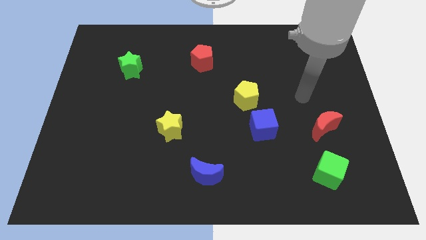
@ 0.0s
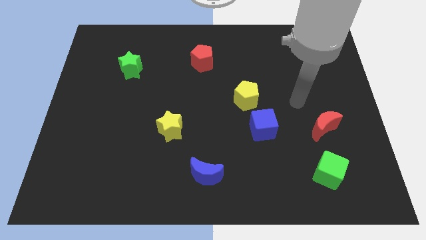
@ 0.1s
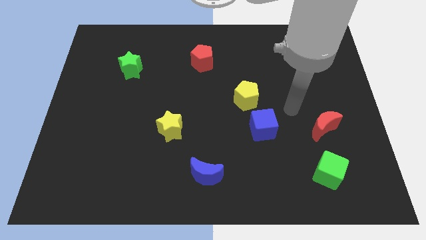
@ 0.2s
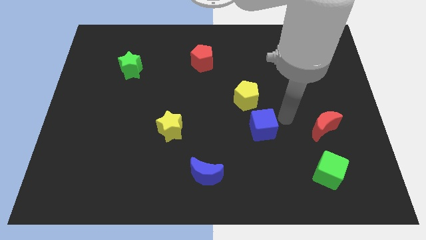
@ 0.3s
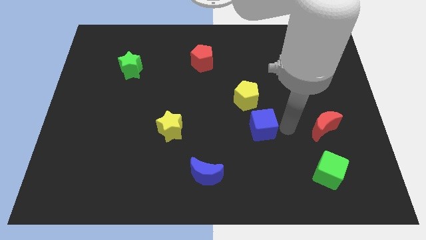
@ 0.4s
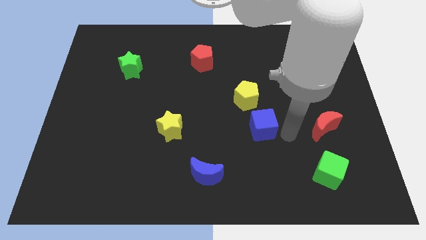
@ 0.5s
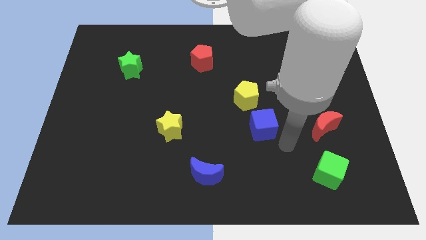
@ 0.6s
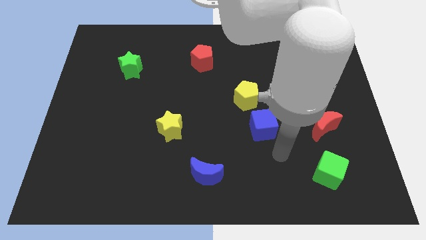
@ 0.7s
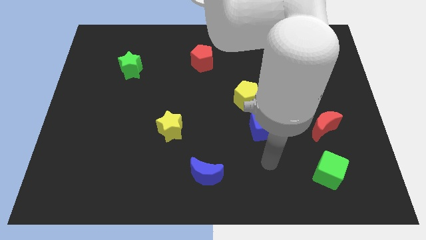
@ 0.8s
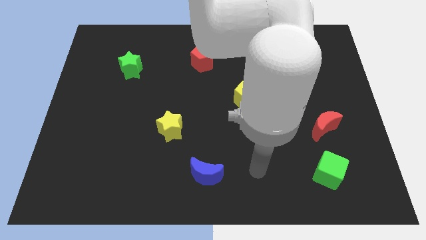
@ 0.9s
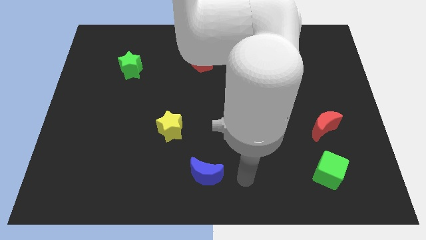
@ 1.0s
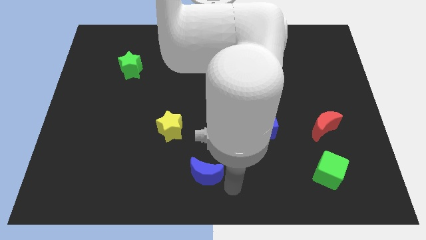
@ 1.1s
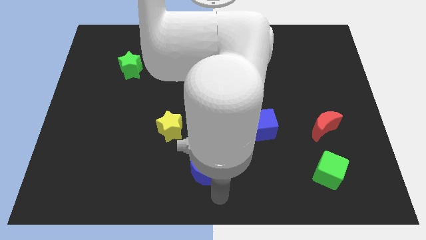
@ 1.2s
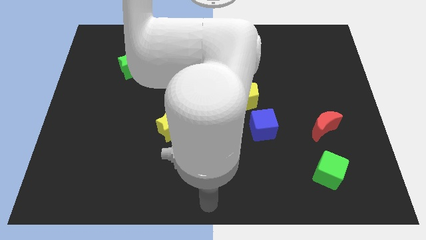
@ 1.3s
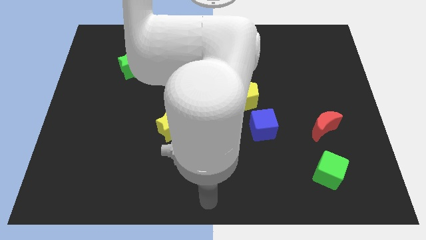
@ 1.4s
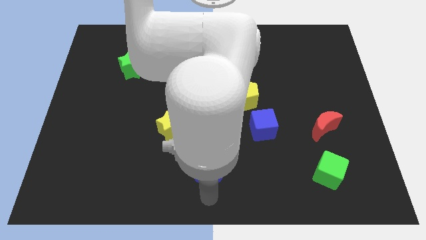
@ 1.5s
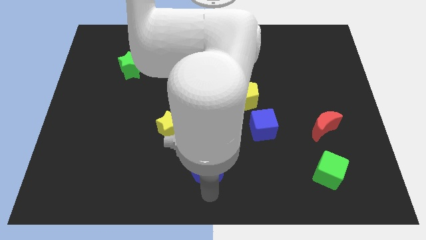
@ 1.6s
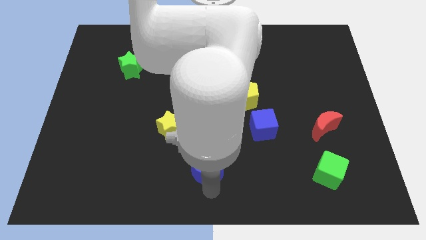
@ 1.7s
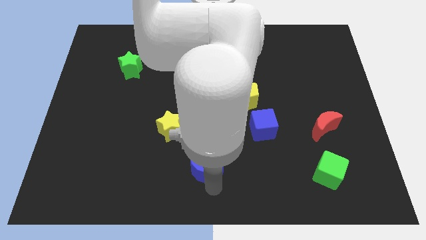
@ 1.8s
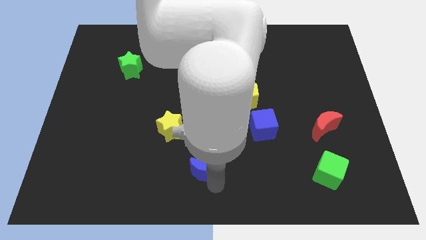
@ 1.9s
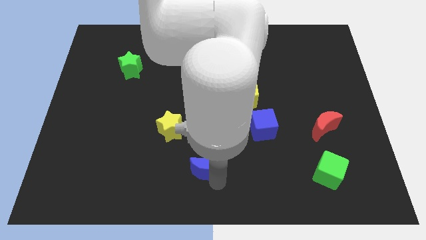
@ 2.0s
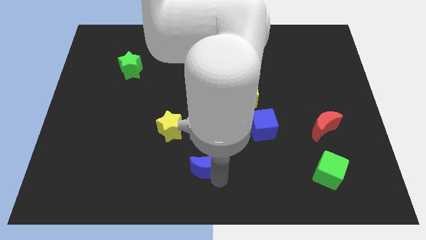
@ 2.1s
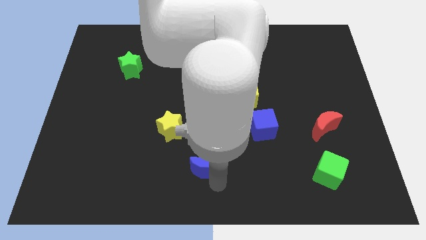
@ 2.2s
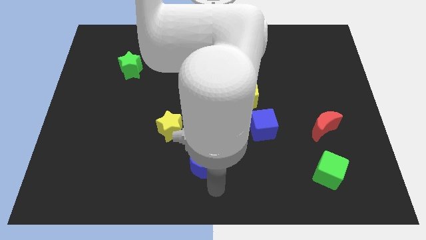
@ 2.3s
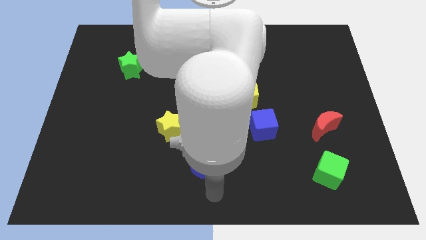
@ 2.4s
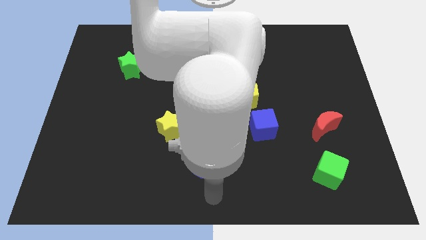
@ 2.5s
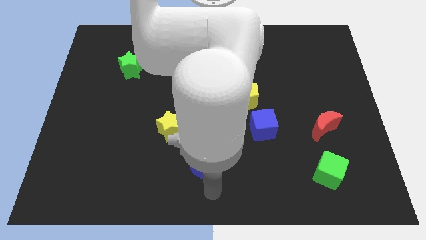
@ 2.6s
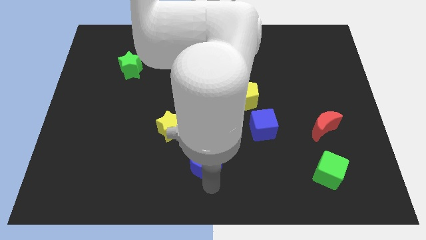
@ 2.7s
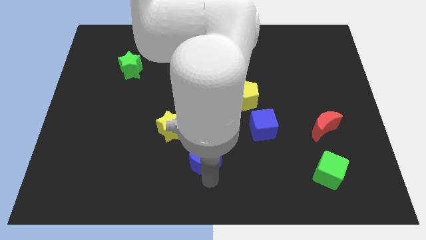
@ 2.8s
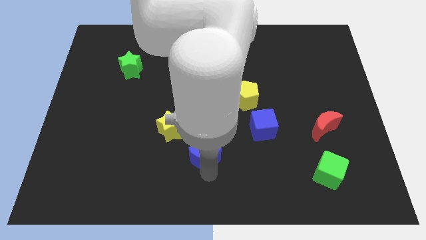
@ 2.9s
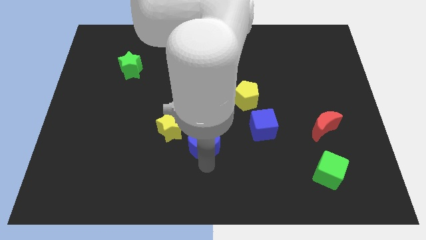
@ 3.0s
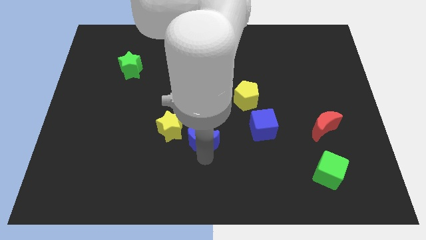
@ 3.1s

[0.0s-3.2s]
move the blue moon upwards somewhat

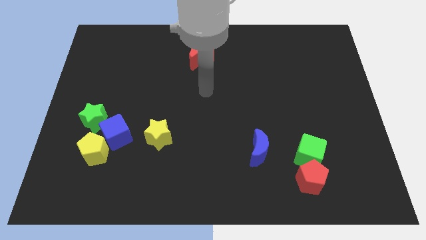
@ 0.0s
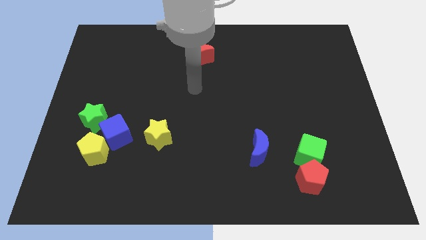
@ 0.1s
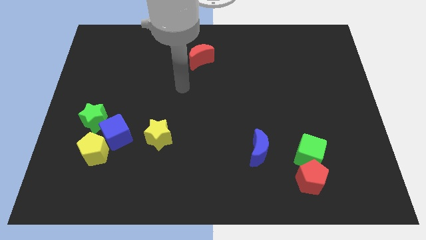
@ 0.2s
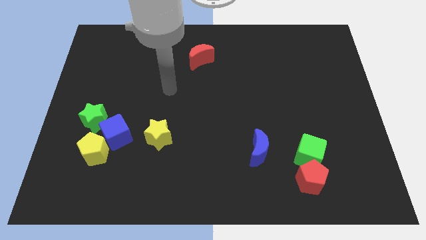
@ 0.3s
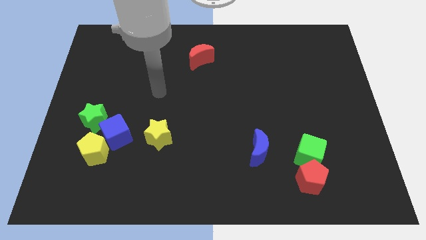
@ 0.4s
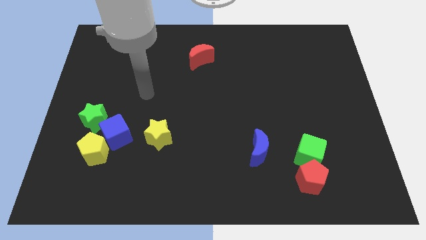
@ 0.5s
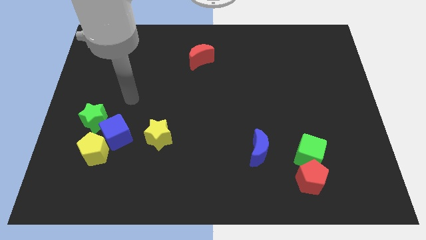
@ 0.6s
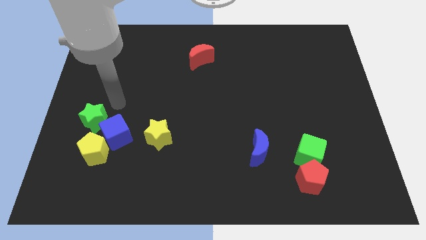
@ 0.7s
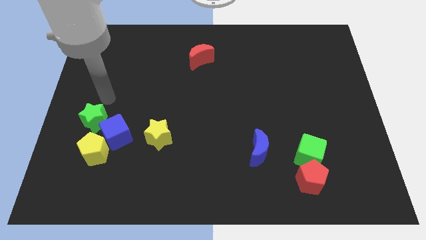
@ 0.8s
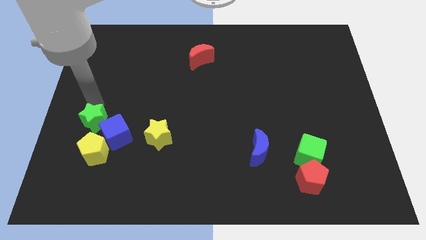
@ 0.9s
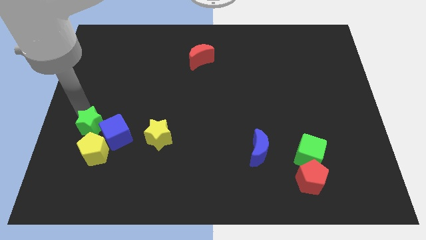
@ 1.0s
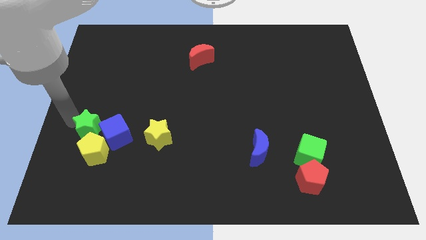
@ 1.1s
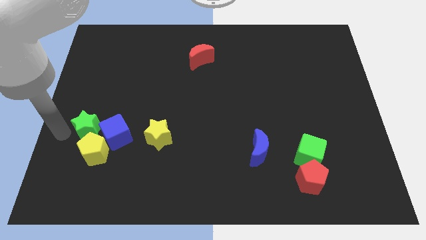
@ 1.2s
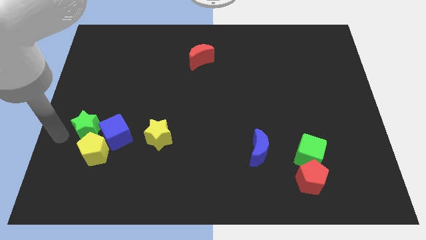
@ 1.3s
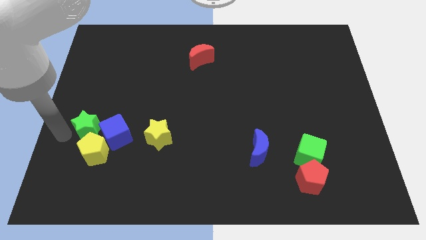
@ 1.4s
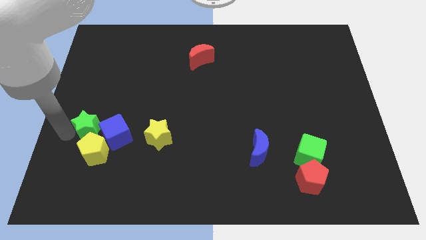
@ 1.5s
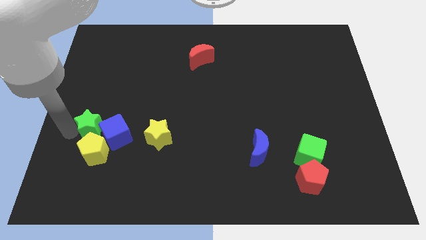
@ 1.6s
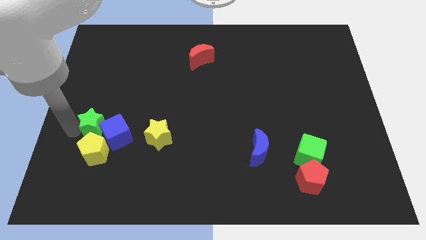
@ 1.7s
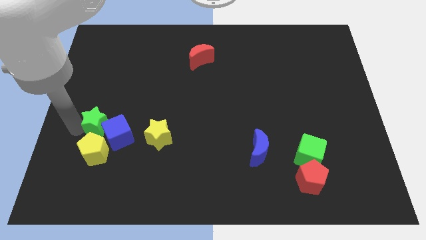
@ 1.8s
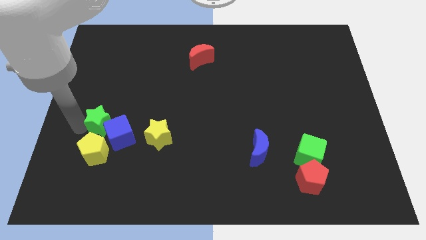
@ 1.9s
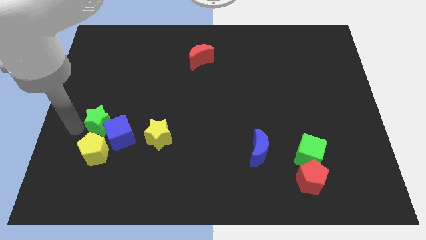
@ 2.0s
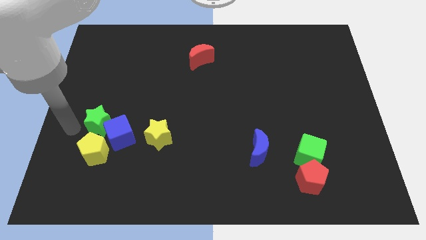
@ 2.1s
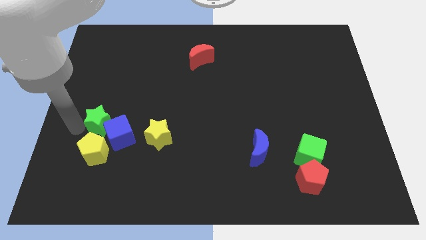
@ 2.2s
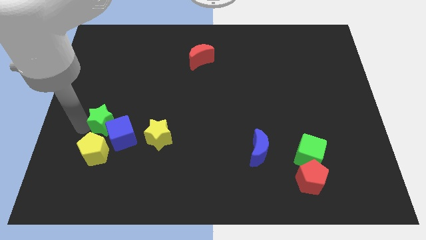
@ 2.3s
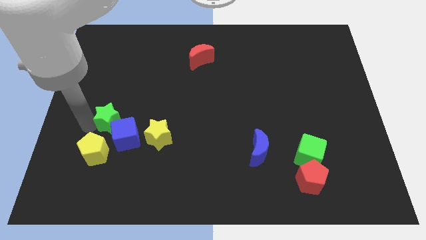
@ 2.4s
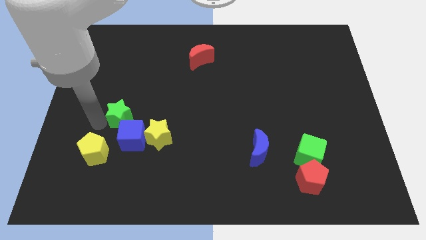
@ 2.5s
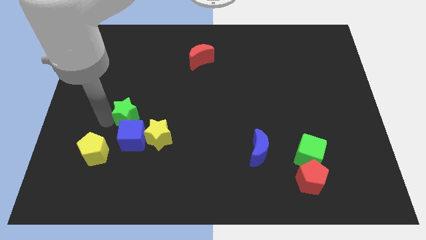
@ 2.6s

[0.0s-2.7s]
move the green star a little right

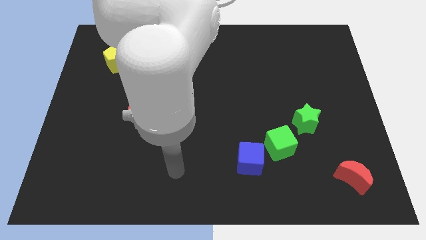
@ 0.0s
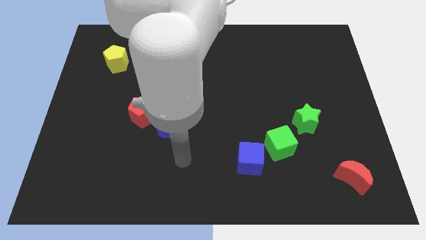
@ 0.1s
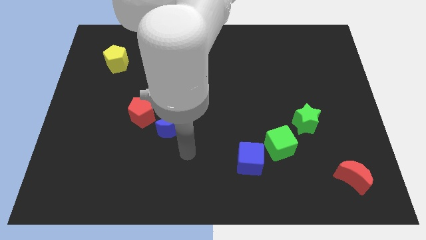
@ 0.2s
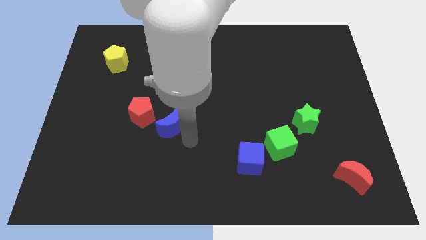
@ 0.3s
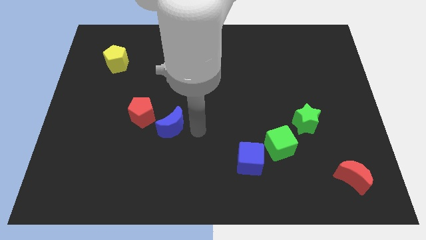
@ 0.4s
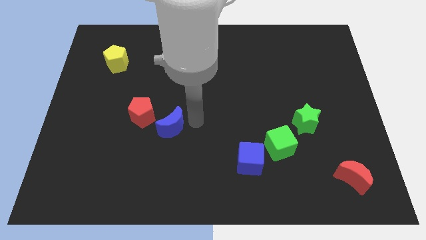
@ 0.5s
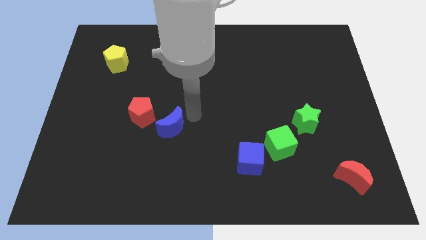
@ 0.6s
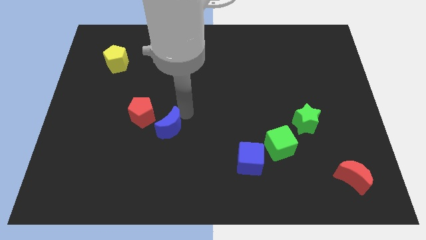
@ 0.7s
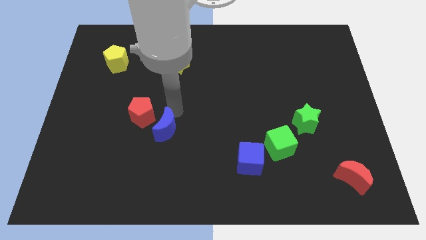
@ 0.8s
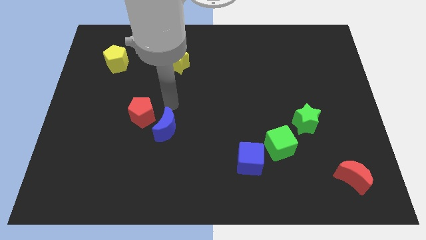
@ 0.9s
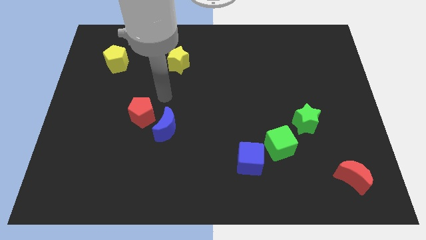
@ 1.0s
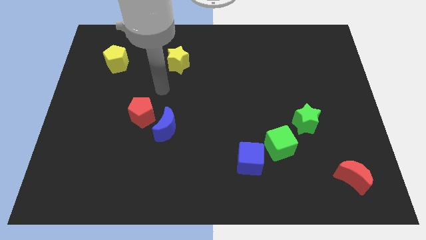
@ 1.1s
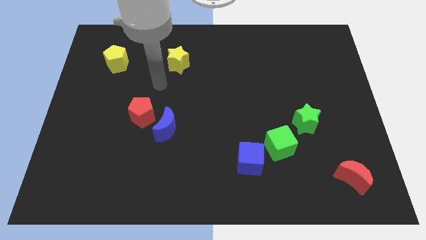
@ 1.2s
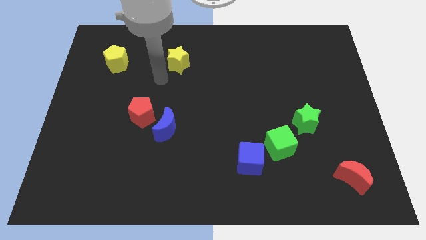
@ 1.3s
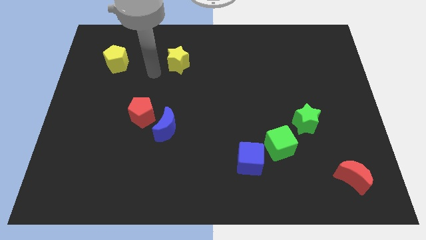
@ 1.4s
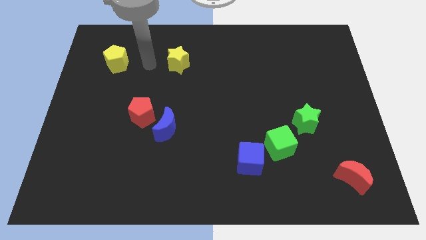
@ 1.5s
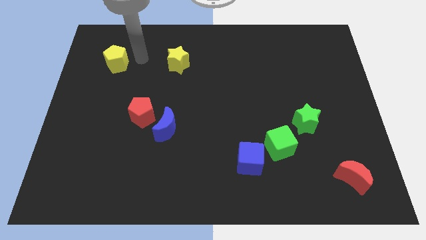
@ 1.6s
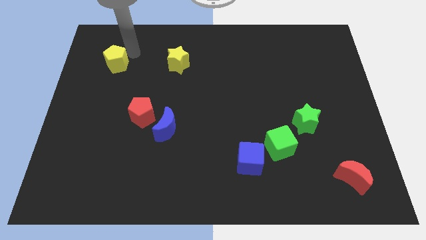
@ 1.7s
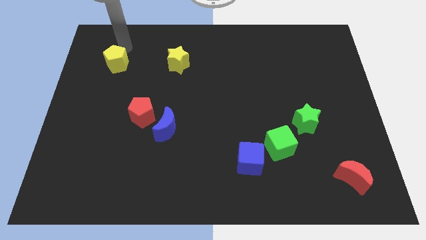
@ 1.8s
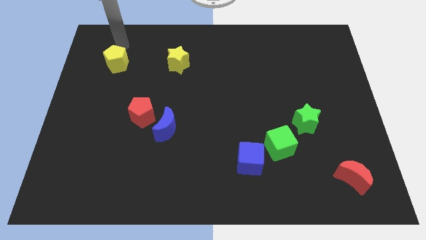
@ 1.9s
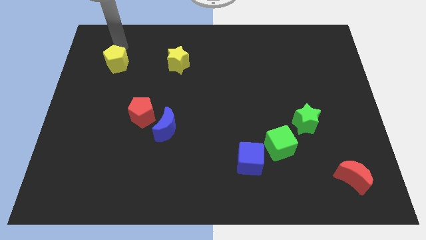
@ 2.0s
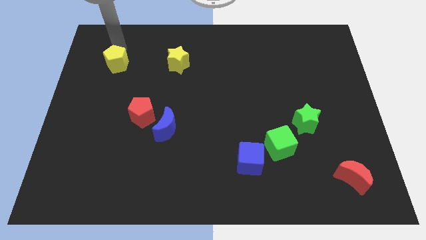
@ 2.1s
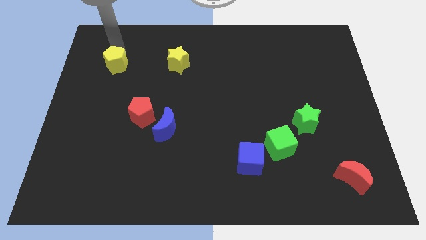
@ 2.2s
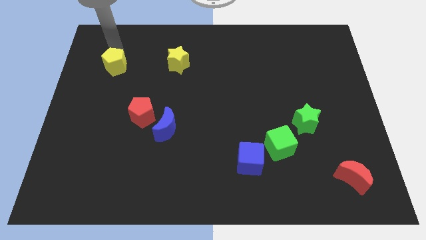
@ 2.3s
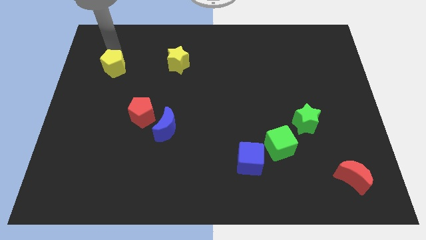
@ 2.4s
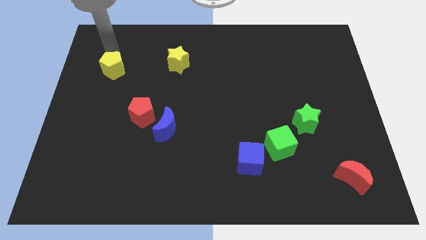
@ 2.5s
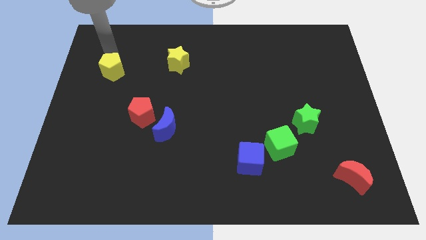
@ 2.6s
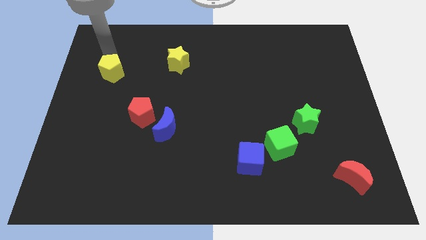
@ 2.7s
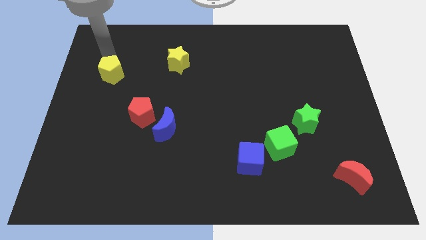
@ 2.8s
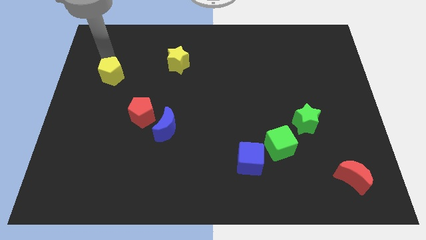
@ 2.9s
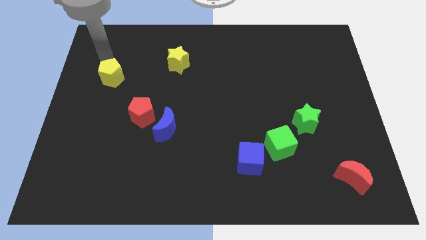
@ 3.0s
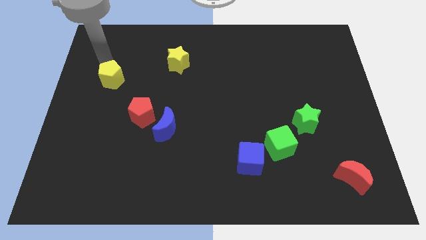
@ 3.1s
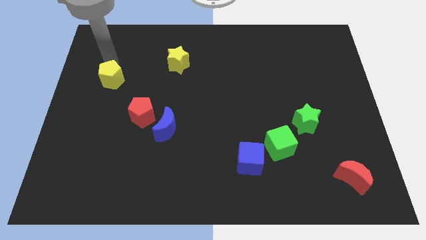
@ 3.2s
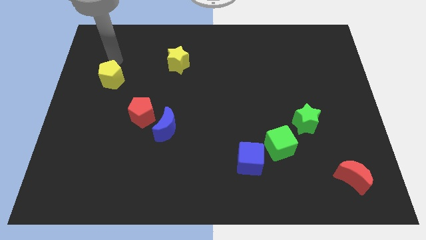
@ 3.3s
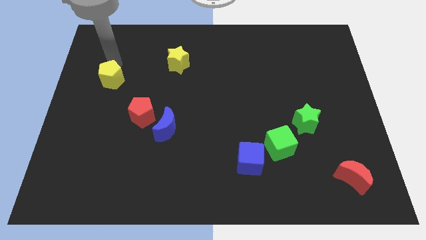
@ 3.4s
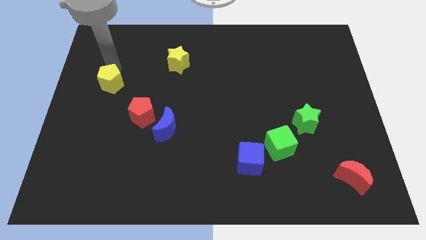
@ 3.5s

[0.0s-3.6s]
slide the yellow pentagon somewhat downwards
